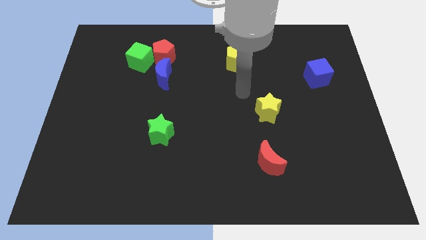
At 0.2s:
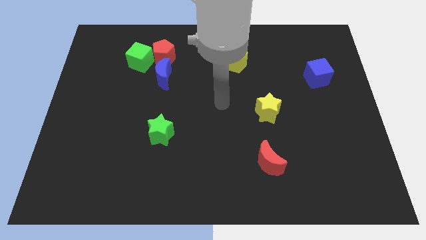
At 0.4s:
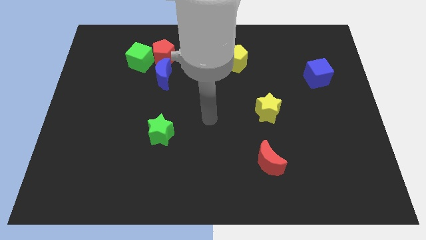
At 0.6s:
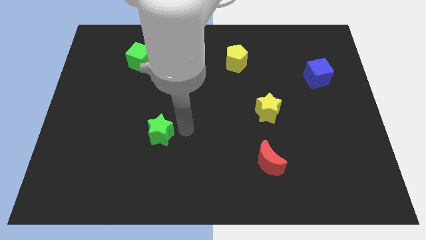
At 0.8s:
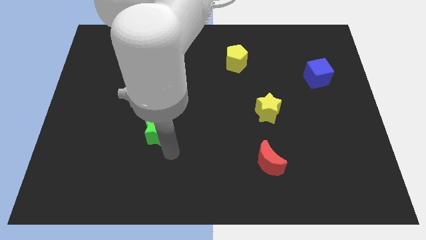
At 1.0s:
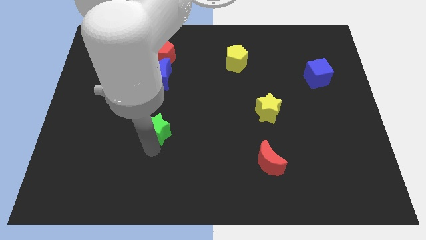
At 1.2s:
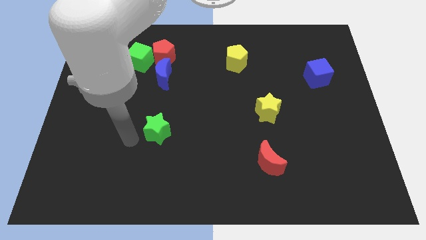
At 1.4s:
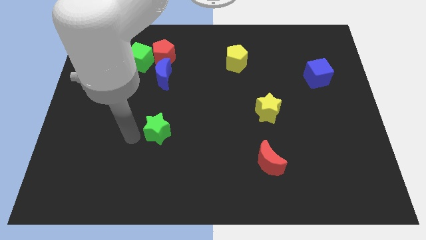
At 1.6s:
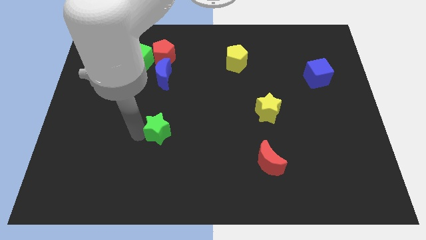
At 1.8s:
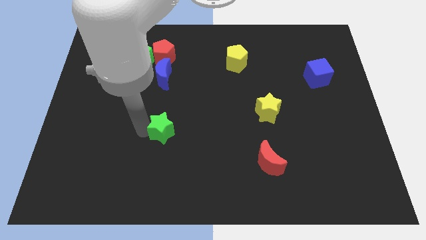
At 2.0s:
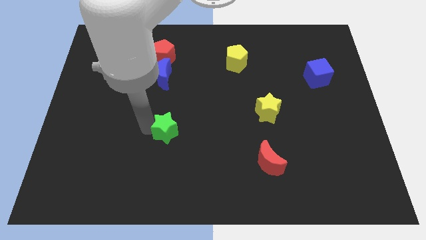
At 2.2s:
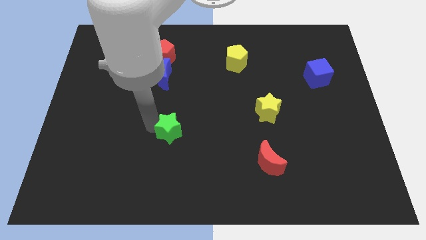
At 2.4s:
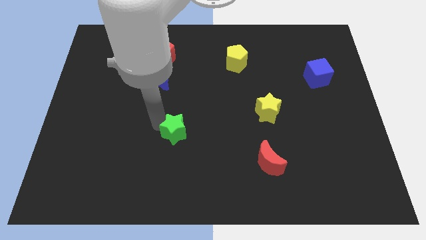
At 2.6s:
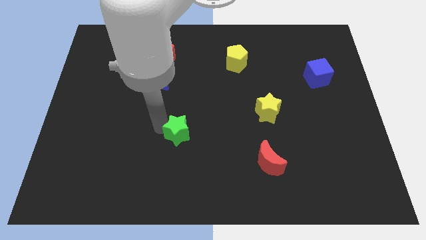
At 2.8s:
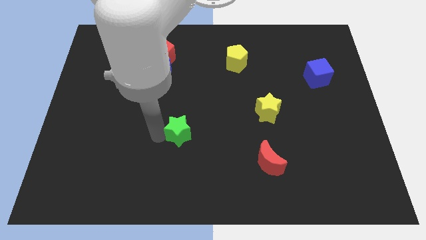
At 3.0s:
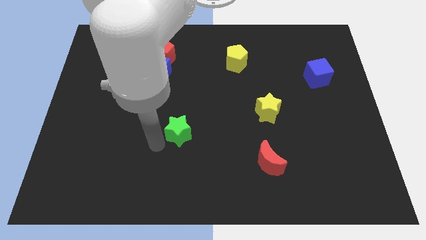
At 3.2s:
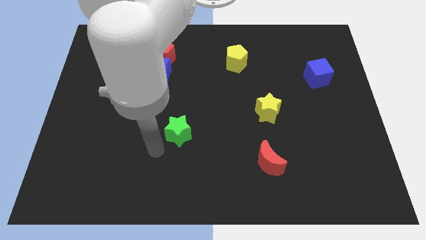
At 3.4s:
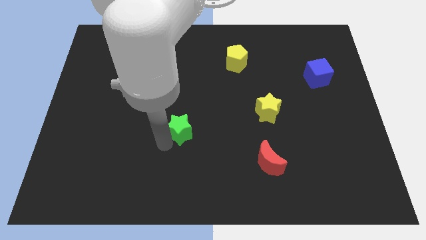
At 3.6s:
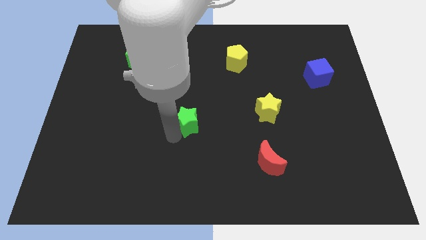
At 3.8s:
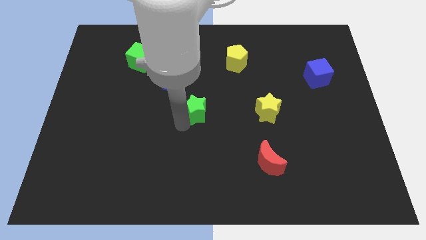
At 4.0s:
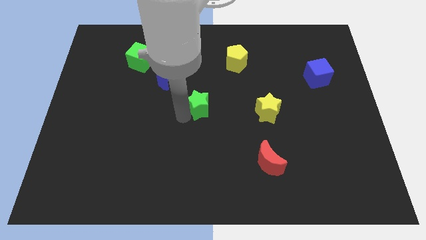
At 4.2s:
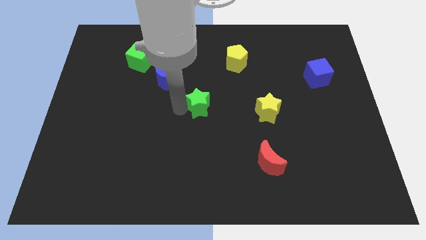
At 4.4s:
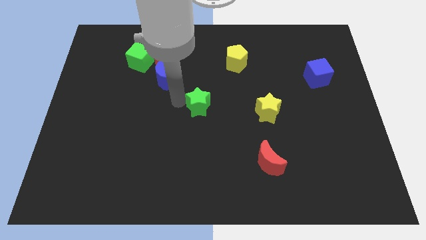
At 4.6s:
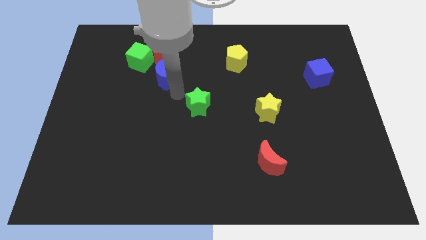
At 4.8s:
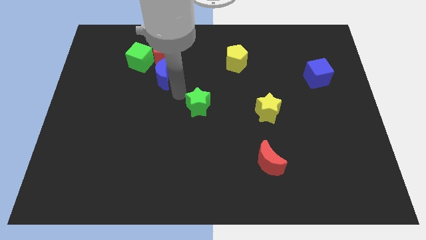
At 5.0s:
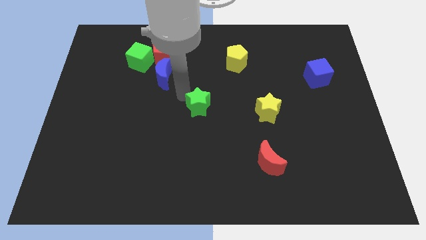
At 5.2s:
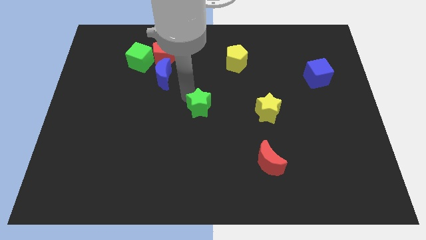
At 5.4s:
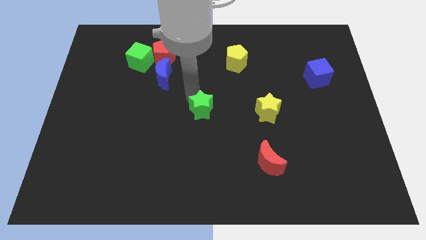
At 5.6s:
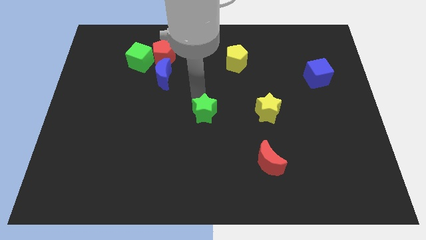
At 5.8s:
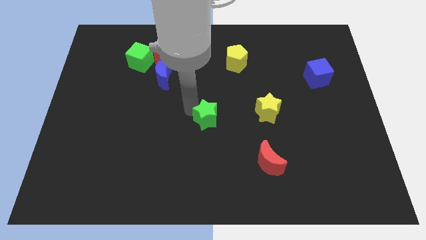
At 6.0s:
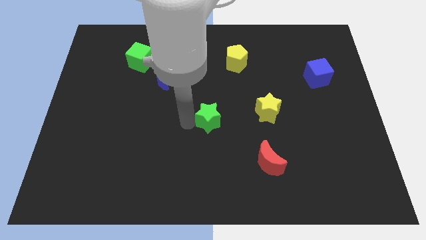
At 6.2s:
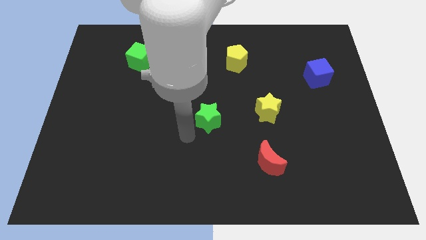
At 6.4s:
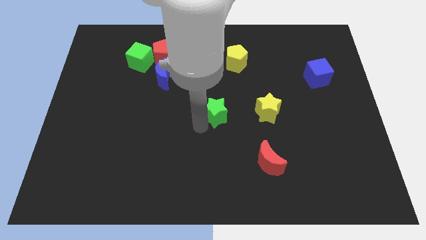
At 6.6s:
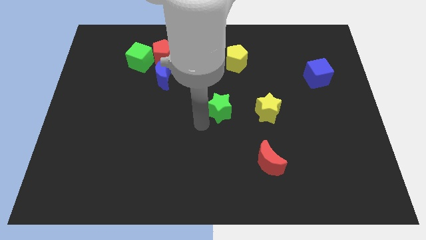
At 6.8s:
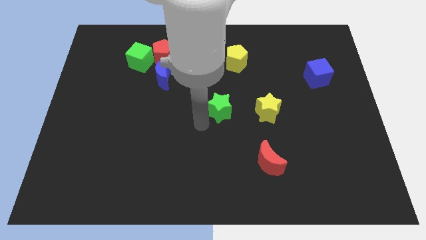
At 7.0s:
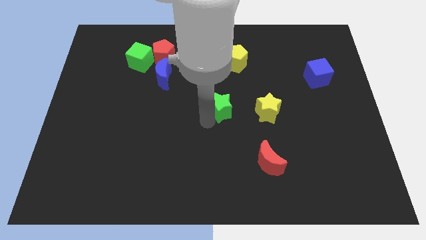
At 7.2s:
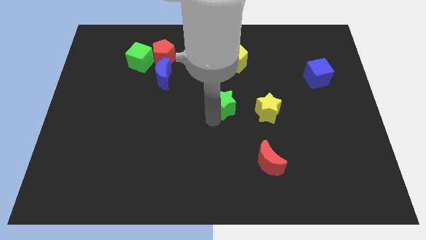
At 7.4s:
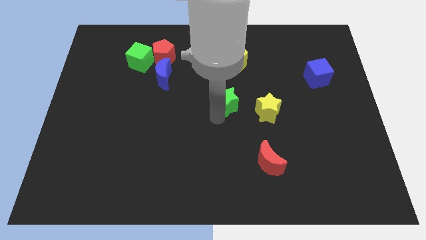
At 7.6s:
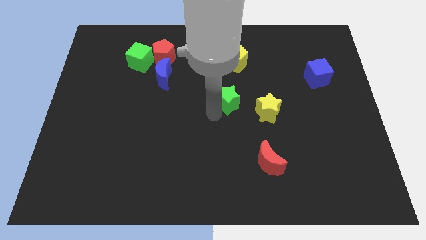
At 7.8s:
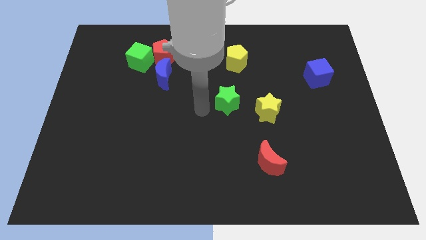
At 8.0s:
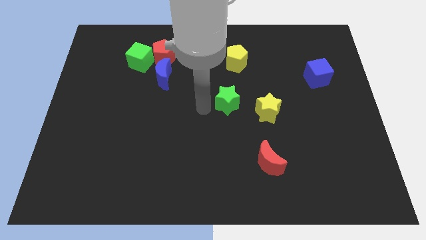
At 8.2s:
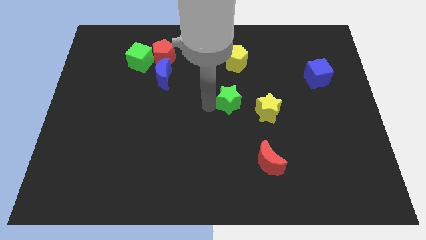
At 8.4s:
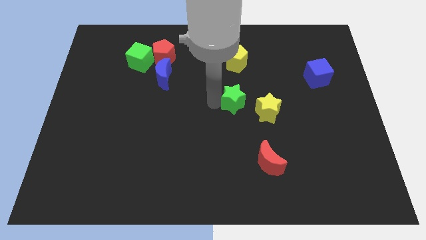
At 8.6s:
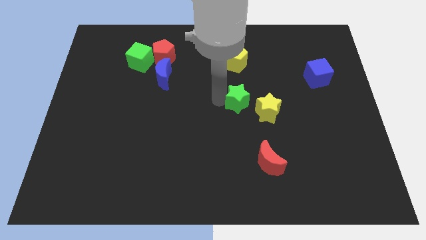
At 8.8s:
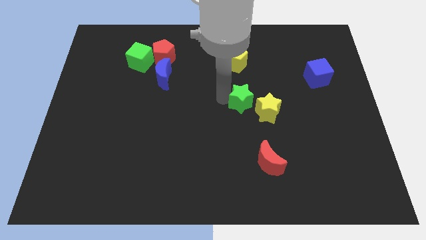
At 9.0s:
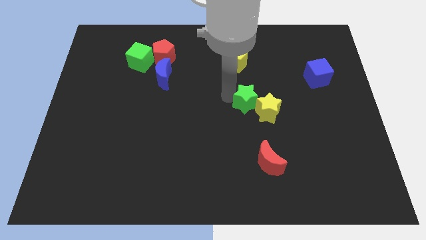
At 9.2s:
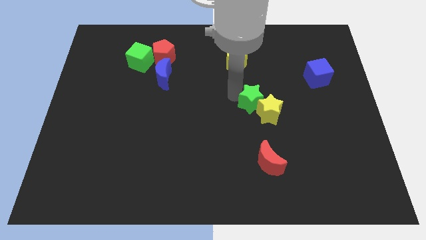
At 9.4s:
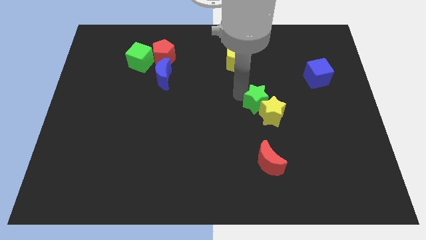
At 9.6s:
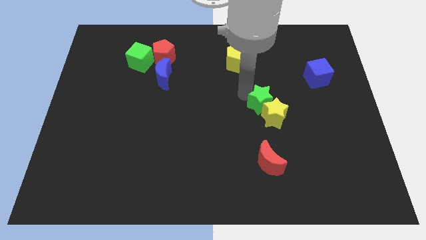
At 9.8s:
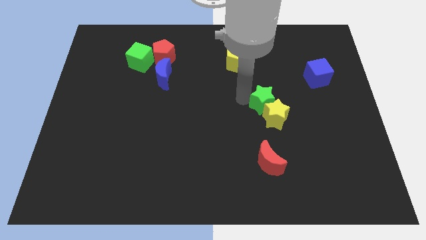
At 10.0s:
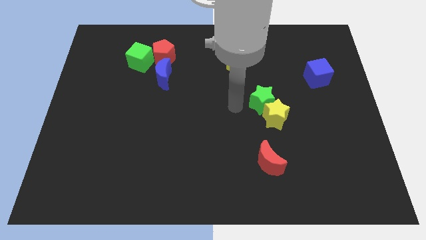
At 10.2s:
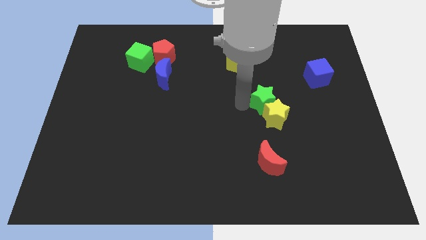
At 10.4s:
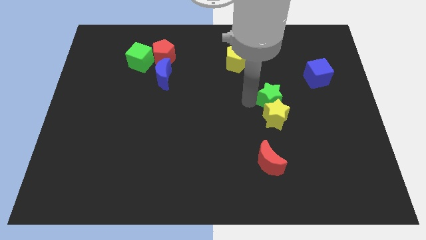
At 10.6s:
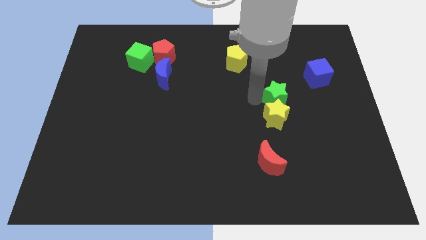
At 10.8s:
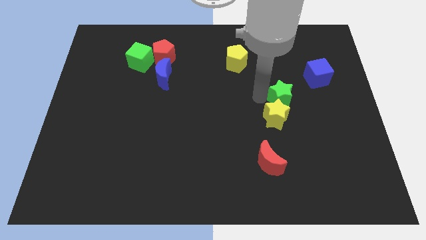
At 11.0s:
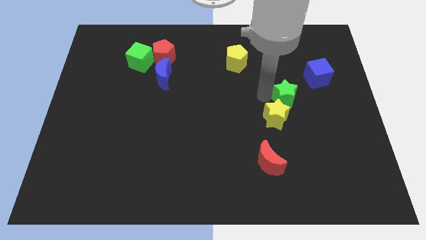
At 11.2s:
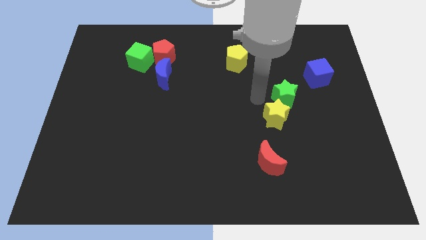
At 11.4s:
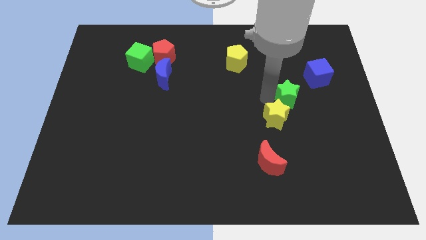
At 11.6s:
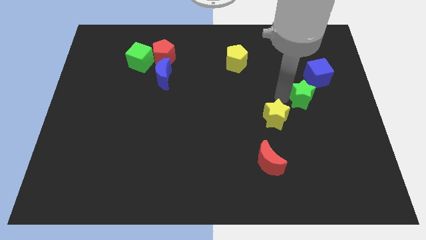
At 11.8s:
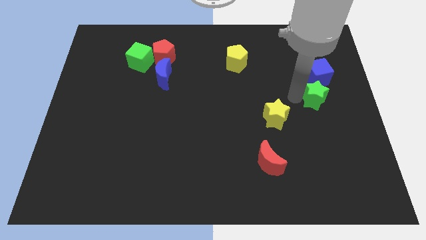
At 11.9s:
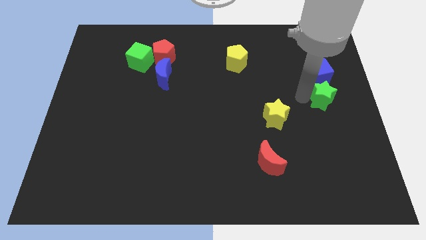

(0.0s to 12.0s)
push the green star to the right side
